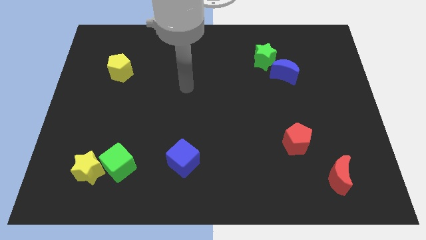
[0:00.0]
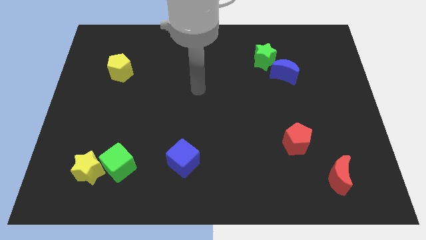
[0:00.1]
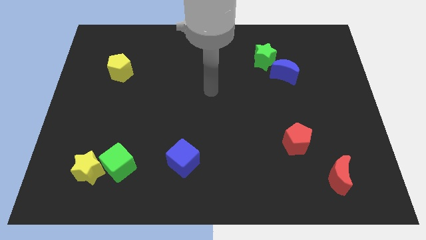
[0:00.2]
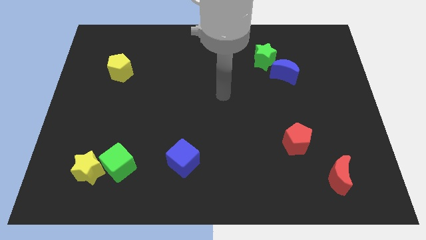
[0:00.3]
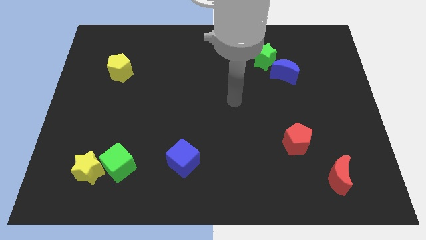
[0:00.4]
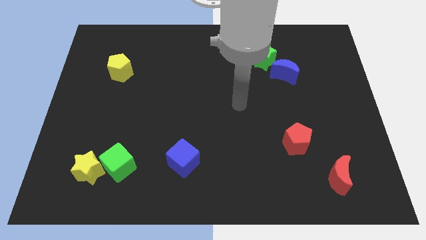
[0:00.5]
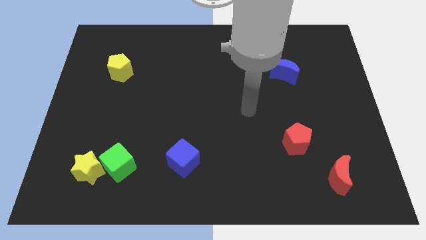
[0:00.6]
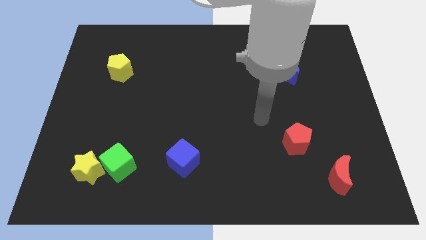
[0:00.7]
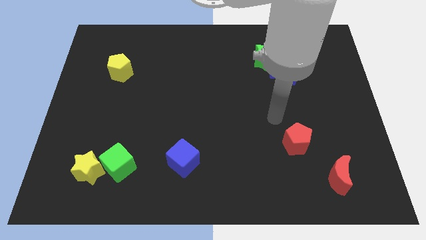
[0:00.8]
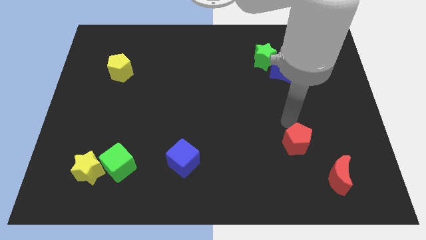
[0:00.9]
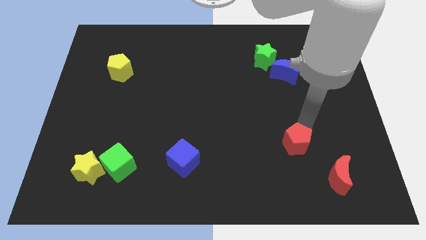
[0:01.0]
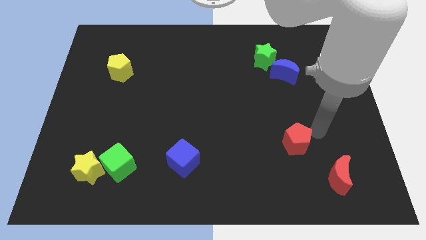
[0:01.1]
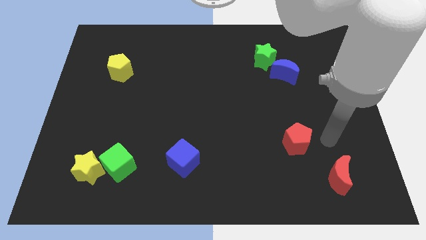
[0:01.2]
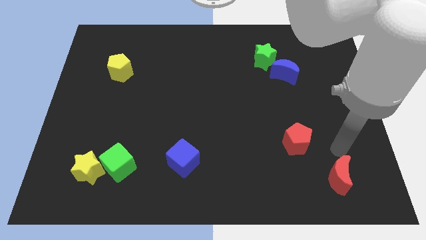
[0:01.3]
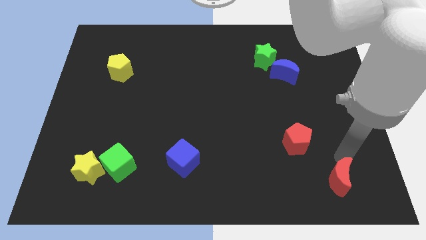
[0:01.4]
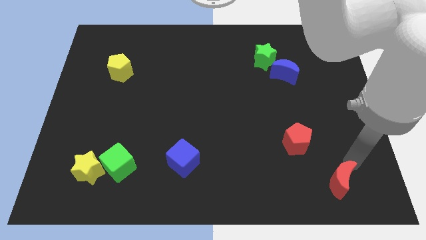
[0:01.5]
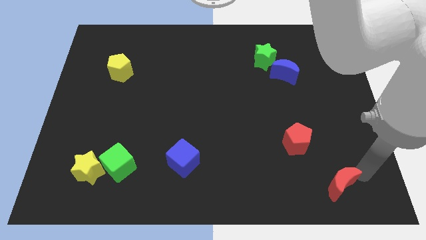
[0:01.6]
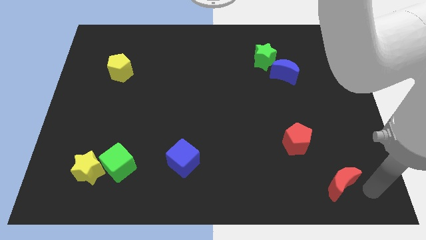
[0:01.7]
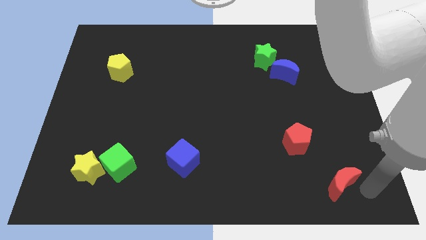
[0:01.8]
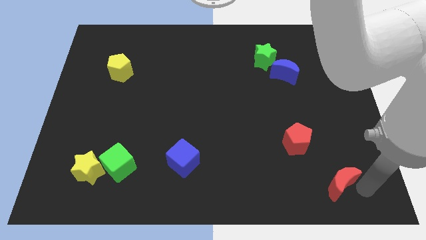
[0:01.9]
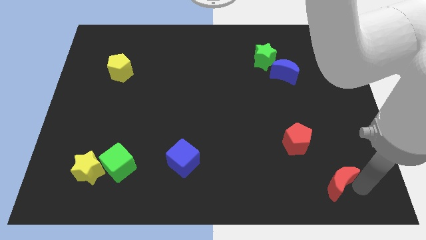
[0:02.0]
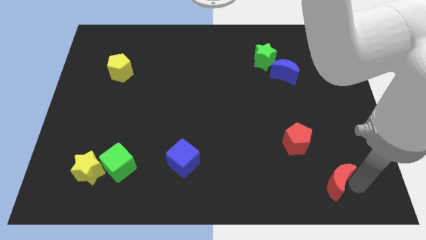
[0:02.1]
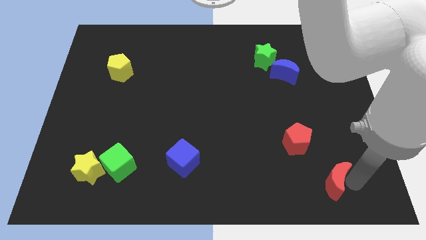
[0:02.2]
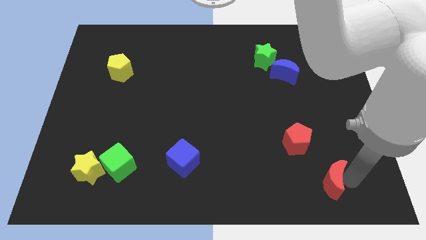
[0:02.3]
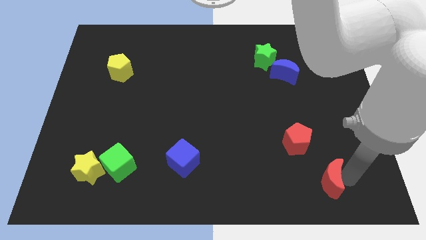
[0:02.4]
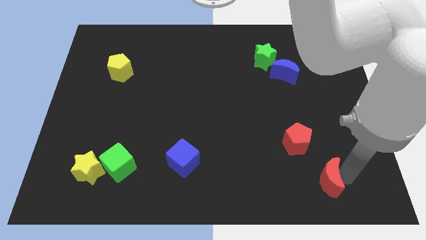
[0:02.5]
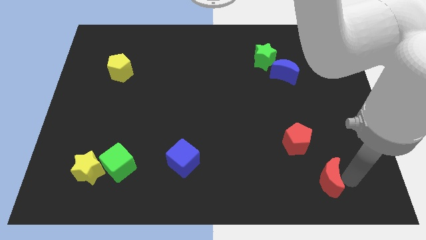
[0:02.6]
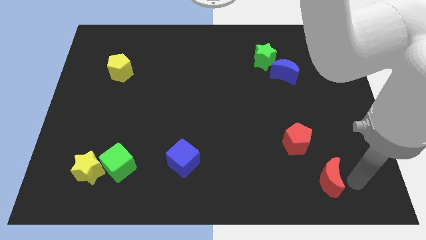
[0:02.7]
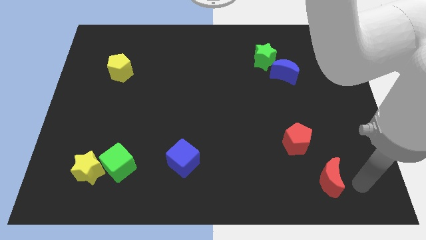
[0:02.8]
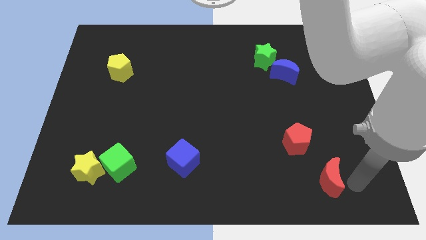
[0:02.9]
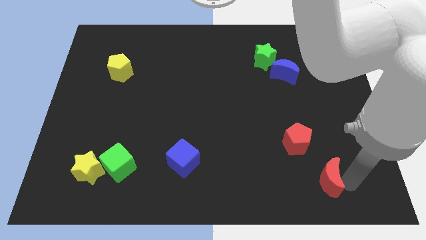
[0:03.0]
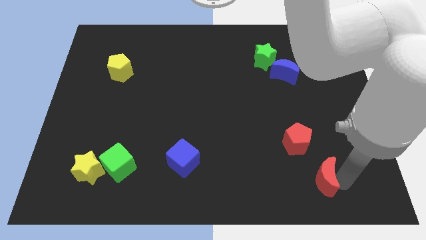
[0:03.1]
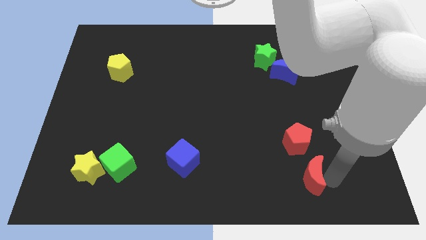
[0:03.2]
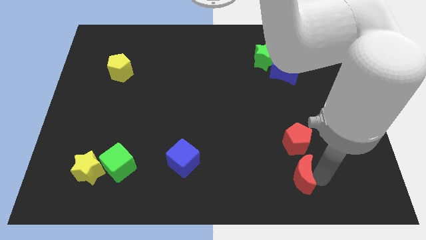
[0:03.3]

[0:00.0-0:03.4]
slightly push the red moon to the left

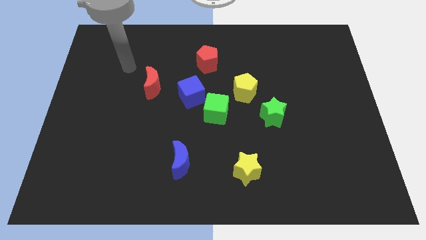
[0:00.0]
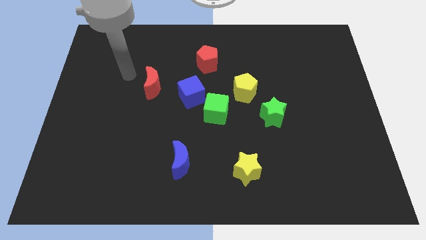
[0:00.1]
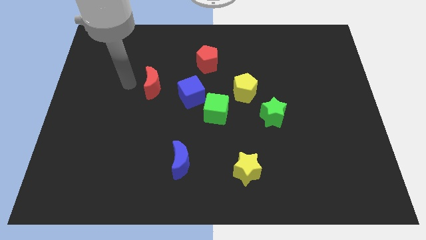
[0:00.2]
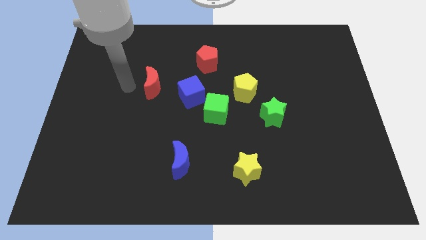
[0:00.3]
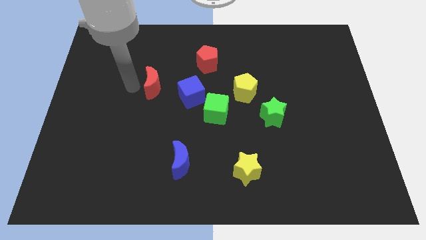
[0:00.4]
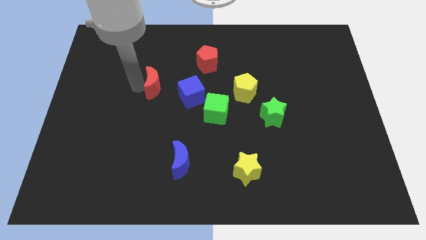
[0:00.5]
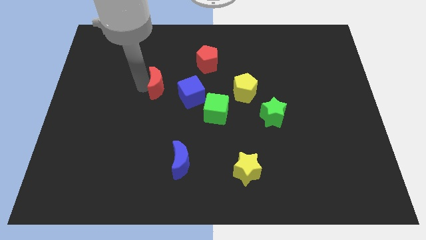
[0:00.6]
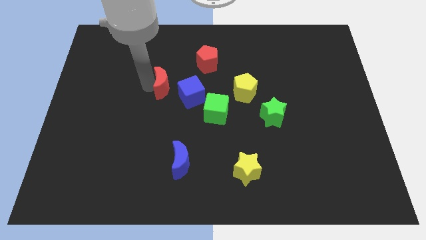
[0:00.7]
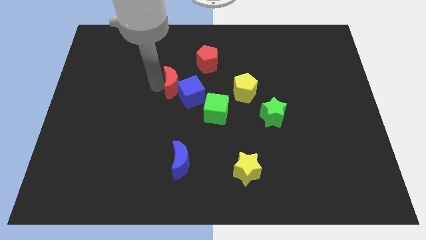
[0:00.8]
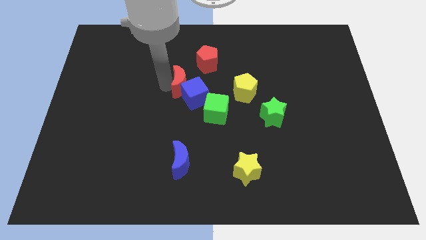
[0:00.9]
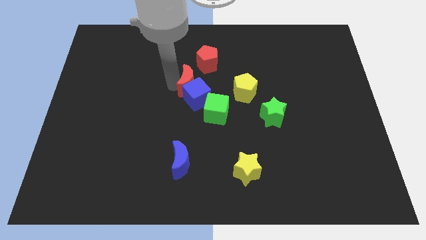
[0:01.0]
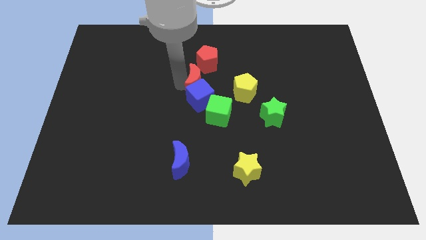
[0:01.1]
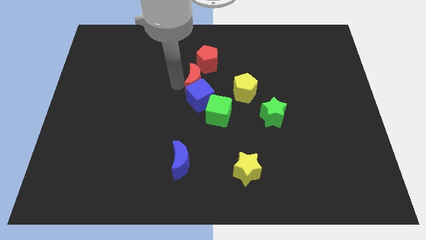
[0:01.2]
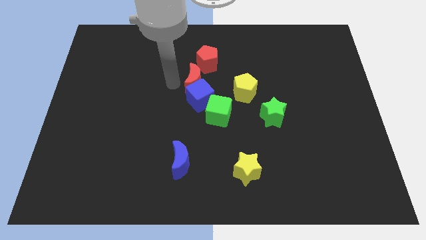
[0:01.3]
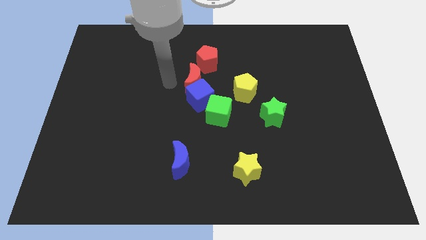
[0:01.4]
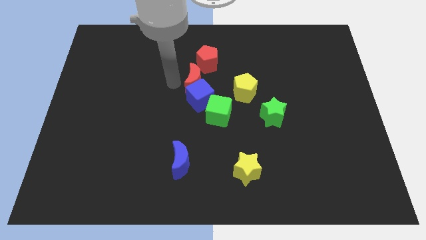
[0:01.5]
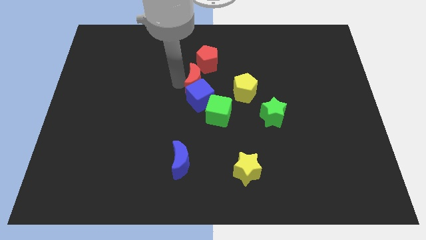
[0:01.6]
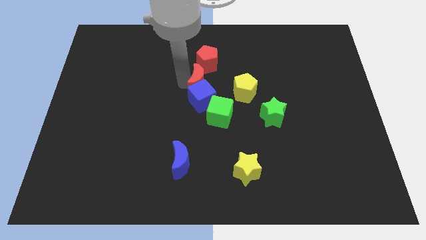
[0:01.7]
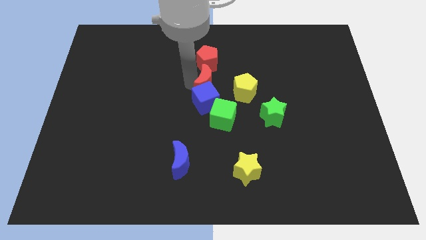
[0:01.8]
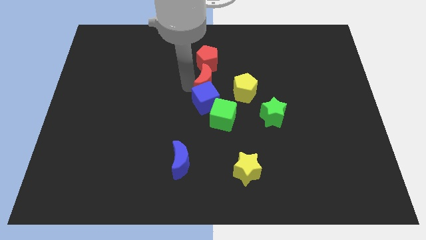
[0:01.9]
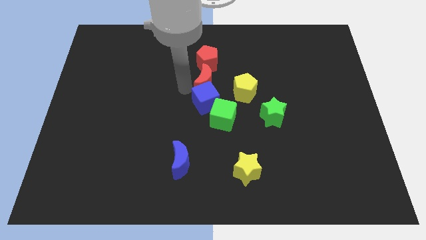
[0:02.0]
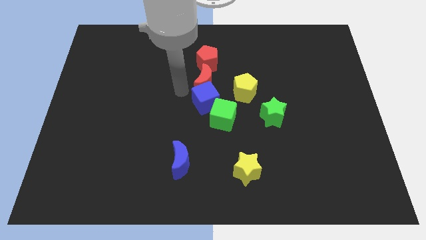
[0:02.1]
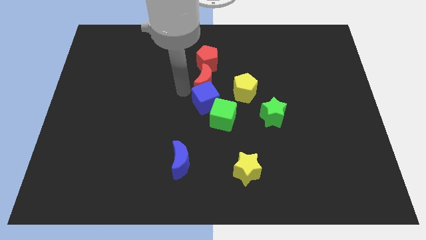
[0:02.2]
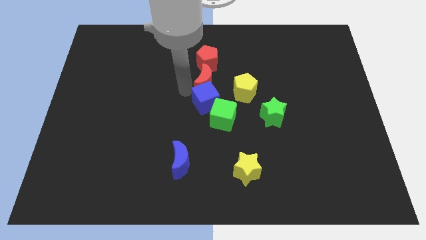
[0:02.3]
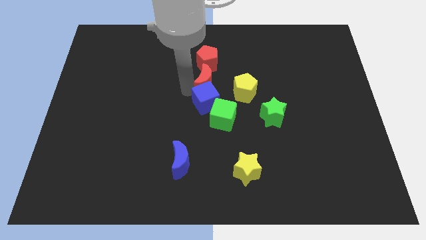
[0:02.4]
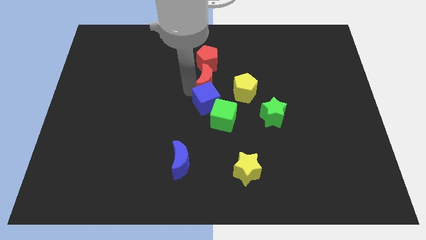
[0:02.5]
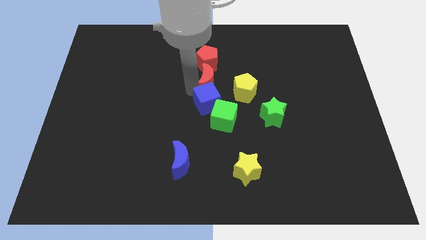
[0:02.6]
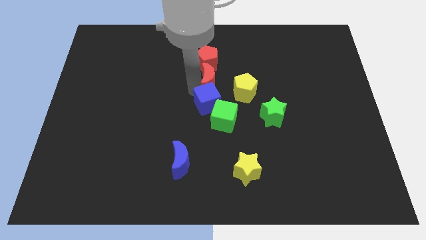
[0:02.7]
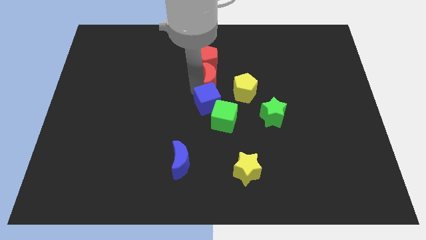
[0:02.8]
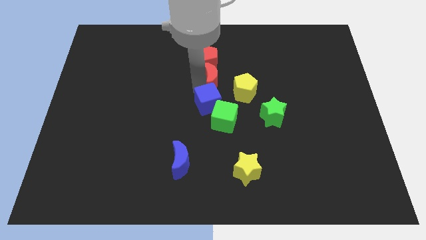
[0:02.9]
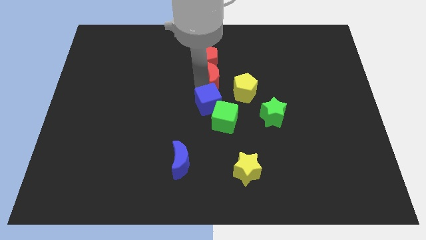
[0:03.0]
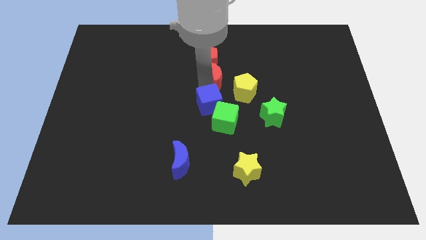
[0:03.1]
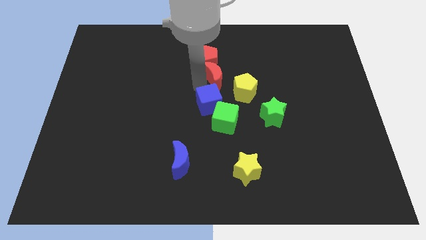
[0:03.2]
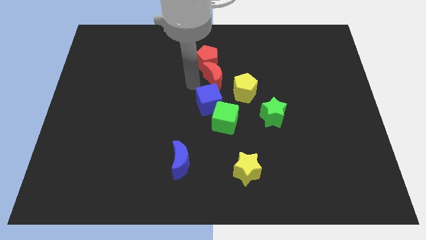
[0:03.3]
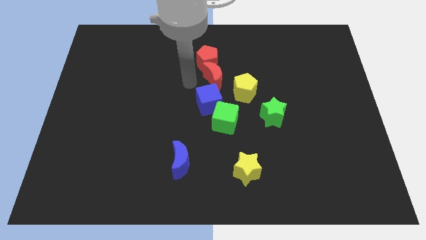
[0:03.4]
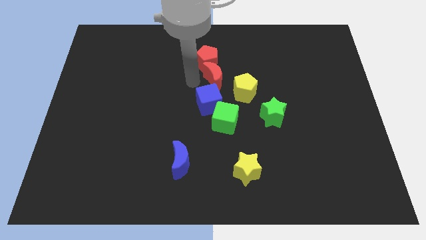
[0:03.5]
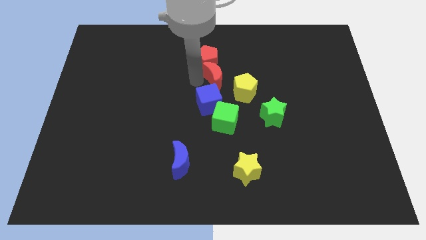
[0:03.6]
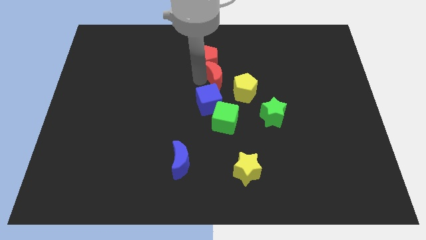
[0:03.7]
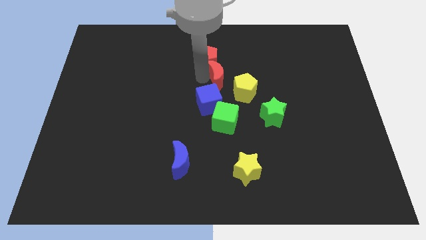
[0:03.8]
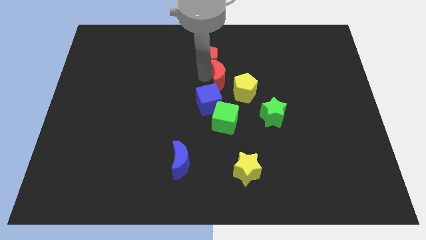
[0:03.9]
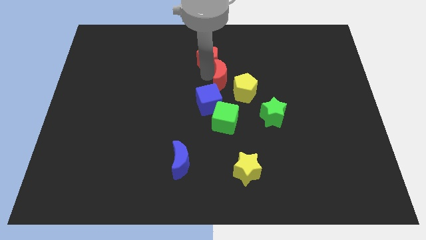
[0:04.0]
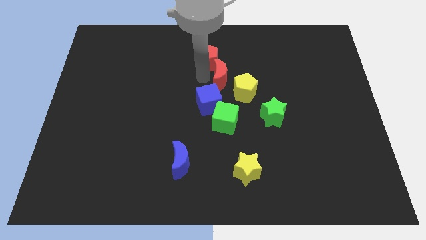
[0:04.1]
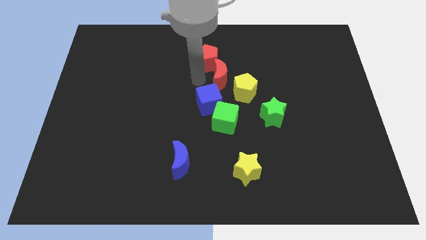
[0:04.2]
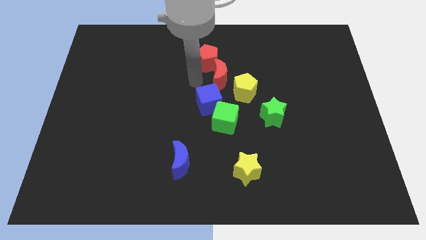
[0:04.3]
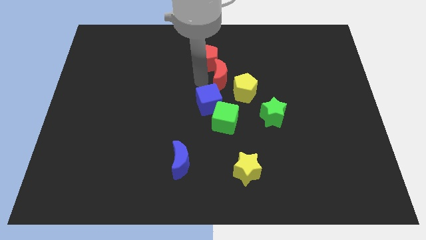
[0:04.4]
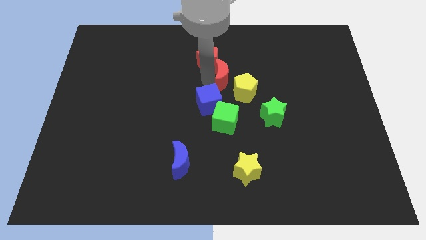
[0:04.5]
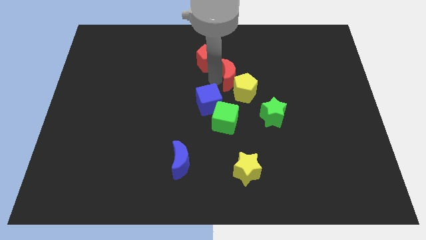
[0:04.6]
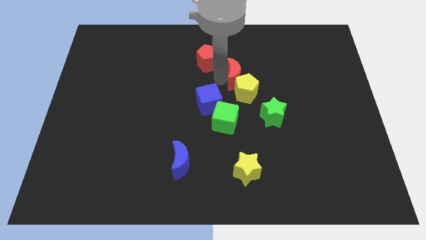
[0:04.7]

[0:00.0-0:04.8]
push the red moon to the right

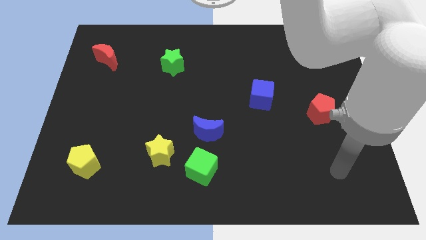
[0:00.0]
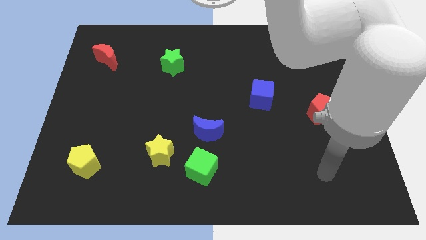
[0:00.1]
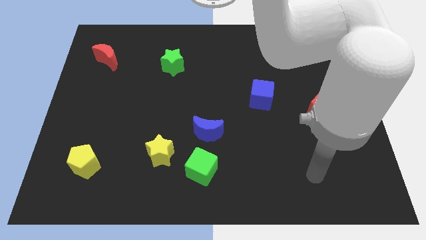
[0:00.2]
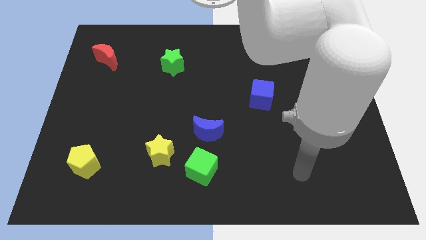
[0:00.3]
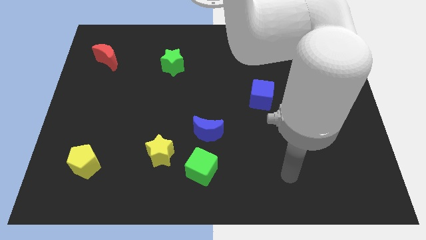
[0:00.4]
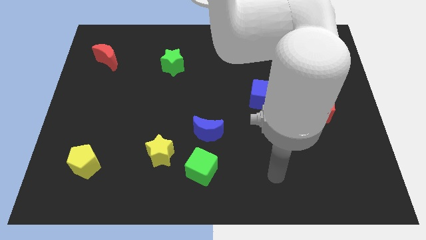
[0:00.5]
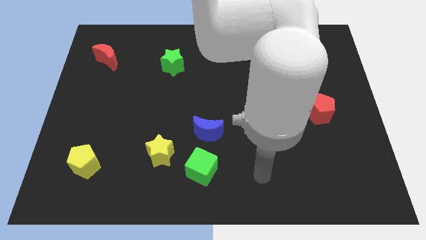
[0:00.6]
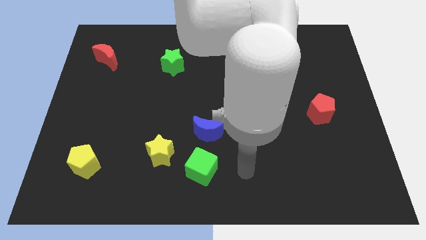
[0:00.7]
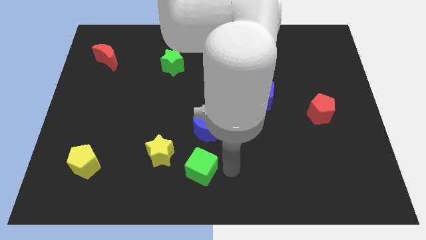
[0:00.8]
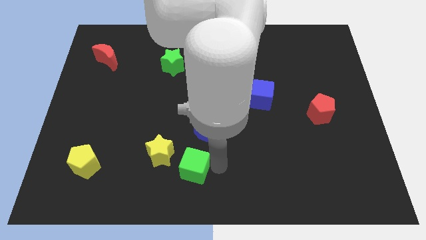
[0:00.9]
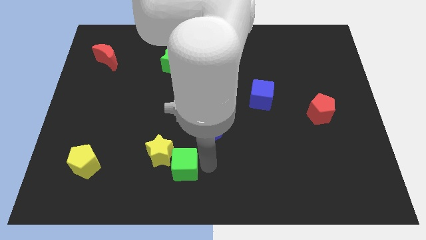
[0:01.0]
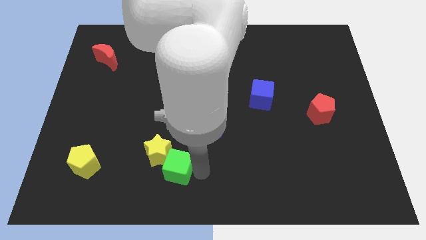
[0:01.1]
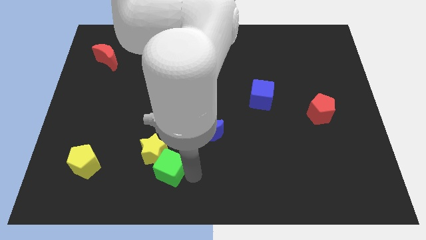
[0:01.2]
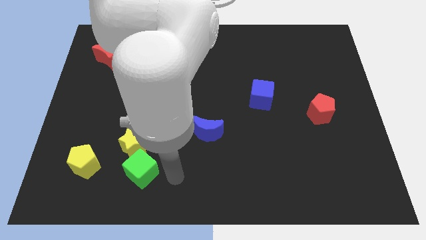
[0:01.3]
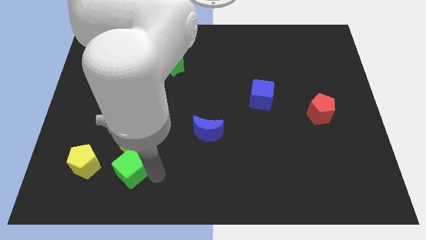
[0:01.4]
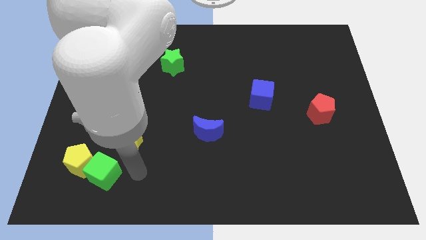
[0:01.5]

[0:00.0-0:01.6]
slightly move the yellow star upwards and to the left
